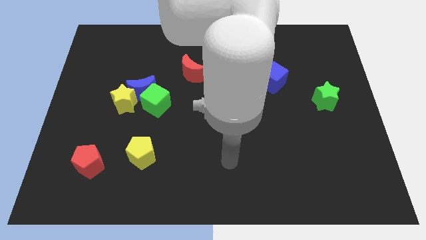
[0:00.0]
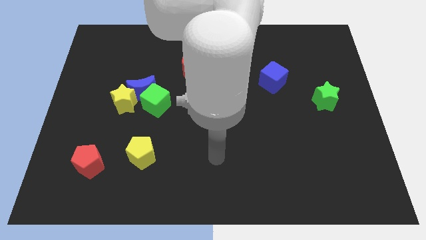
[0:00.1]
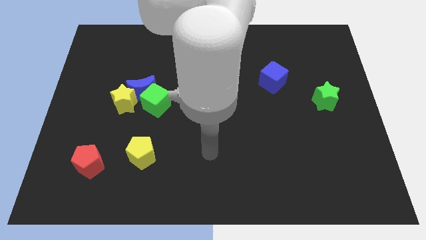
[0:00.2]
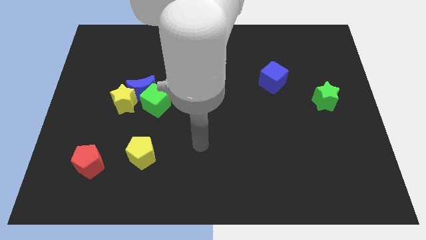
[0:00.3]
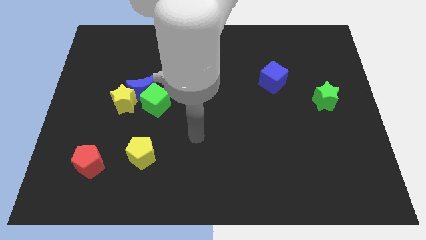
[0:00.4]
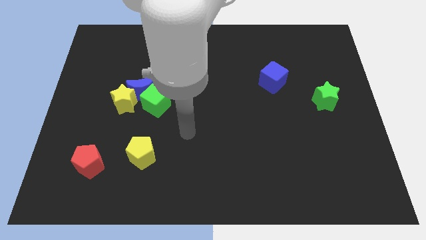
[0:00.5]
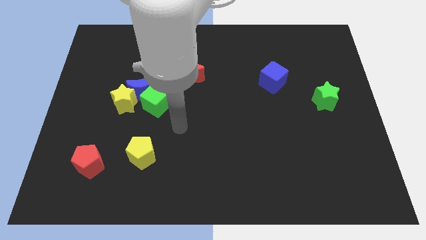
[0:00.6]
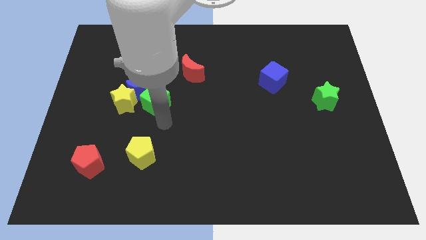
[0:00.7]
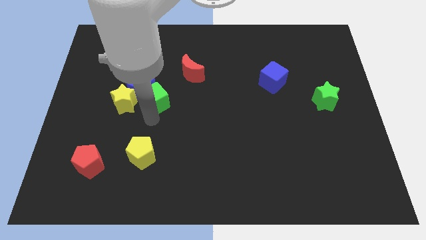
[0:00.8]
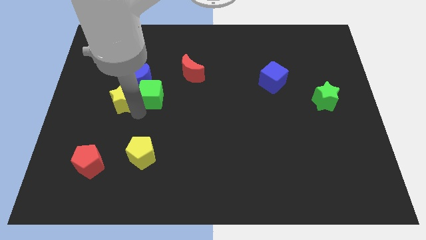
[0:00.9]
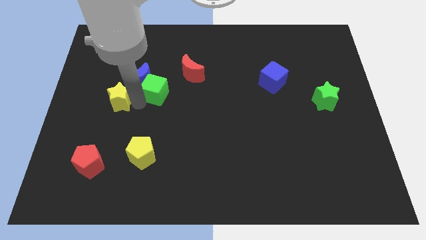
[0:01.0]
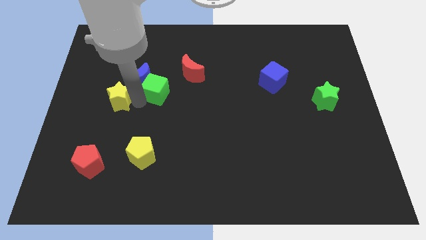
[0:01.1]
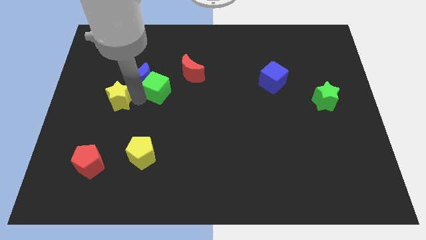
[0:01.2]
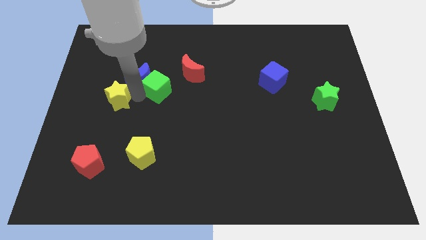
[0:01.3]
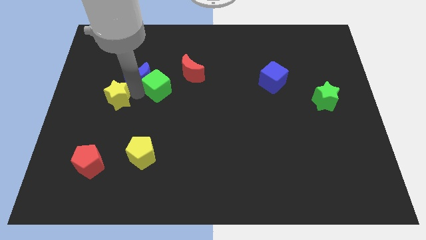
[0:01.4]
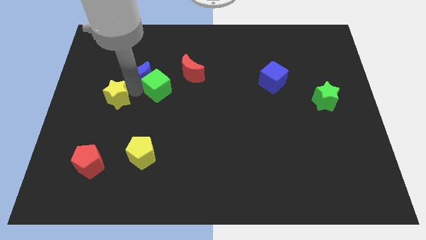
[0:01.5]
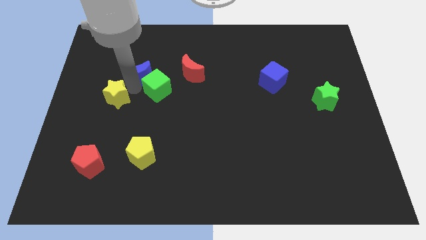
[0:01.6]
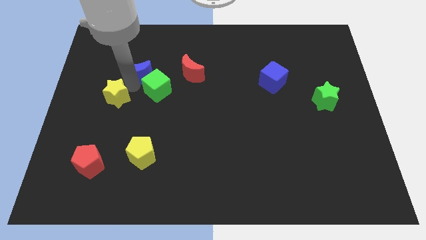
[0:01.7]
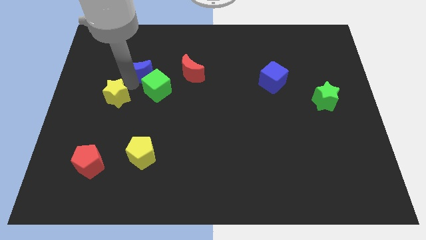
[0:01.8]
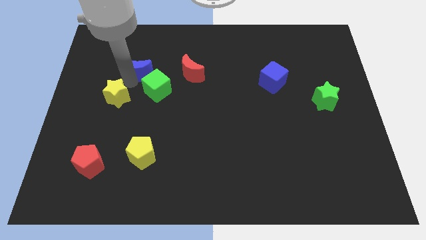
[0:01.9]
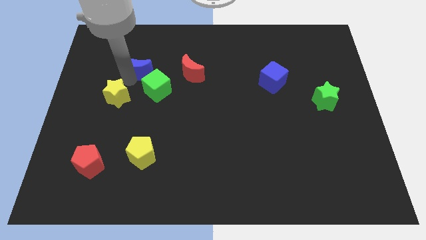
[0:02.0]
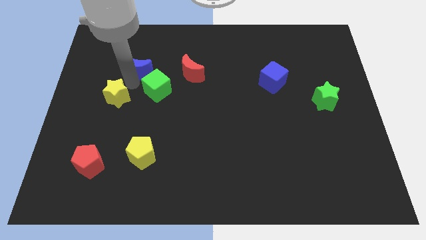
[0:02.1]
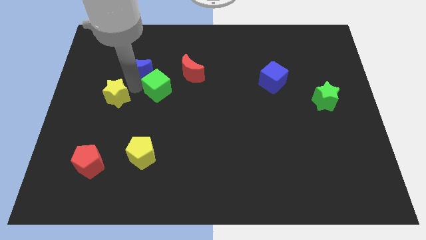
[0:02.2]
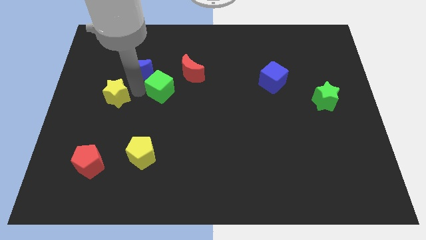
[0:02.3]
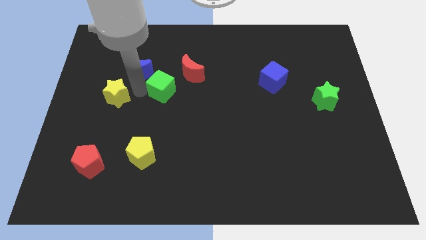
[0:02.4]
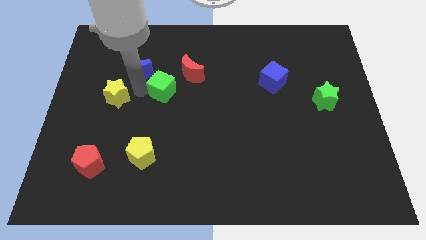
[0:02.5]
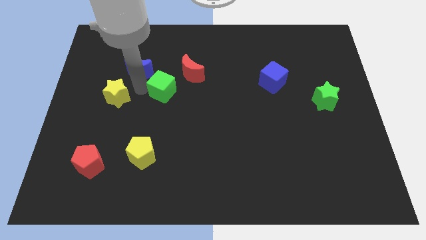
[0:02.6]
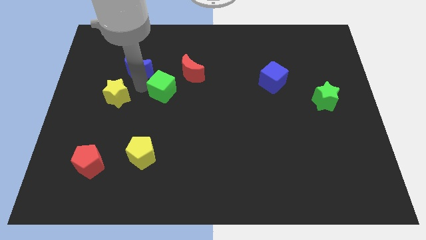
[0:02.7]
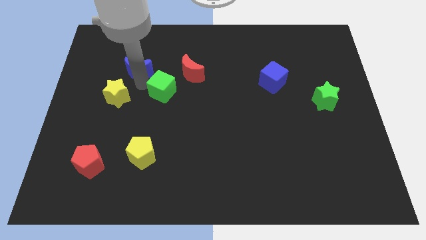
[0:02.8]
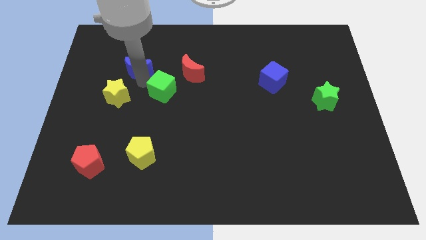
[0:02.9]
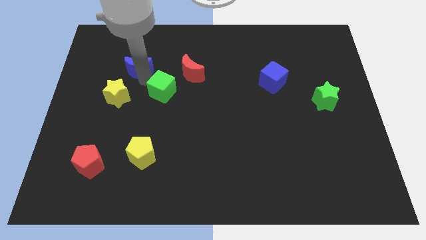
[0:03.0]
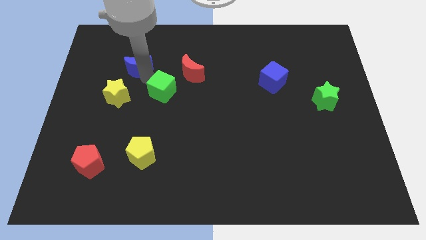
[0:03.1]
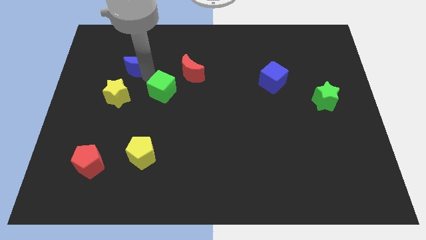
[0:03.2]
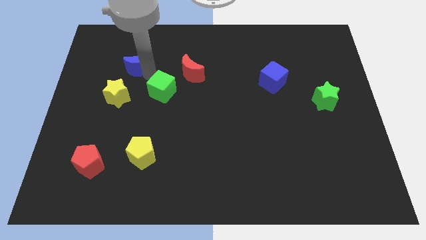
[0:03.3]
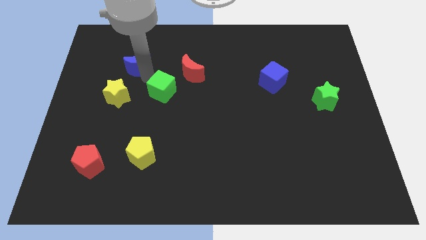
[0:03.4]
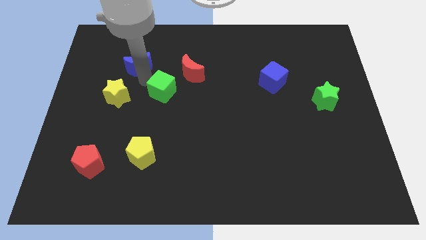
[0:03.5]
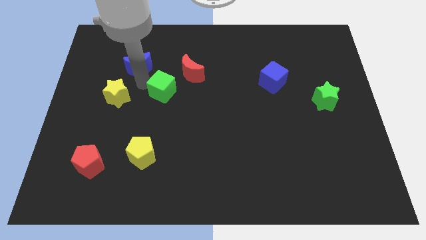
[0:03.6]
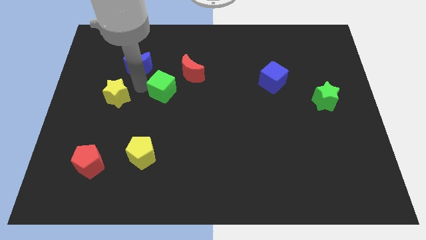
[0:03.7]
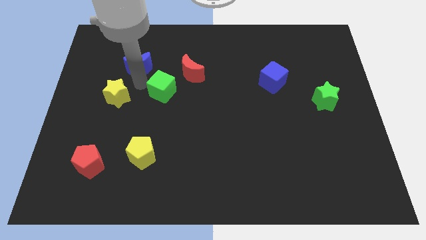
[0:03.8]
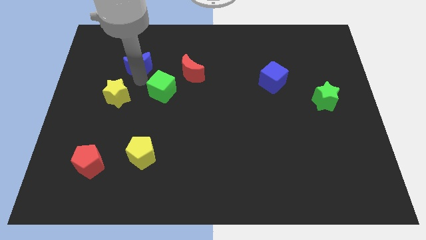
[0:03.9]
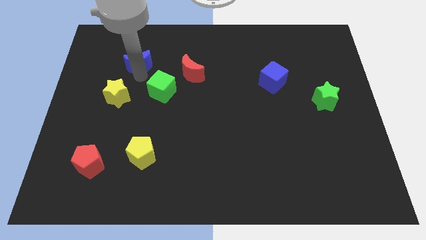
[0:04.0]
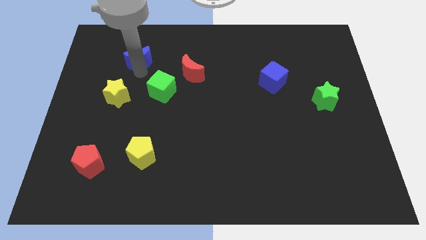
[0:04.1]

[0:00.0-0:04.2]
separate the blue moon from the yellow star and green cube

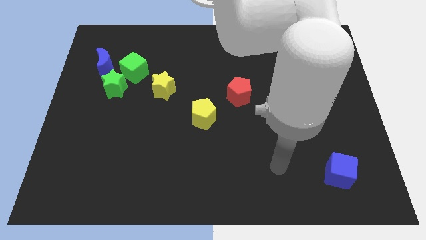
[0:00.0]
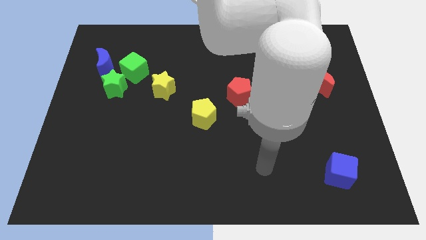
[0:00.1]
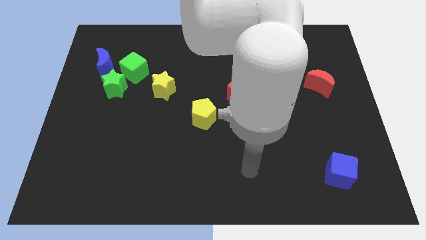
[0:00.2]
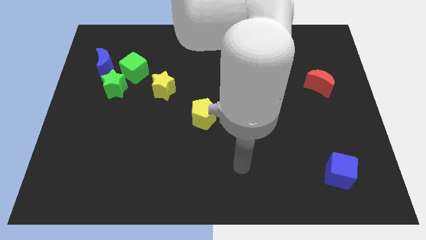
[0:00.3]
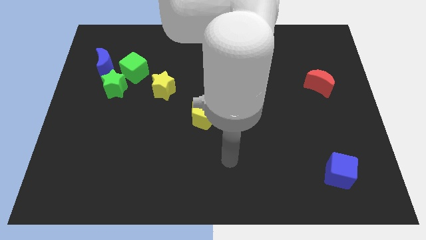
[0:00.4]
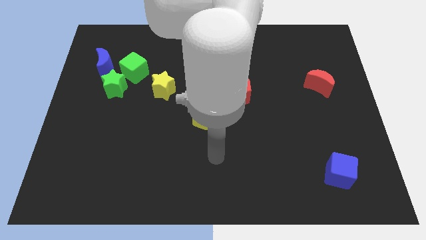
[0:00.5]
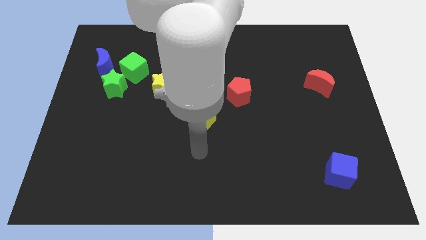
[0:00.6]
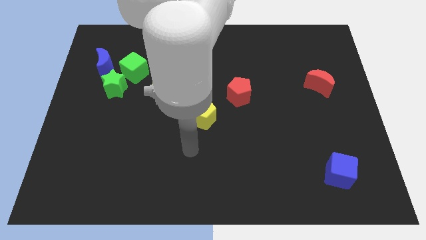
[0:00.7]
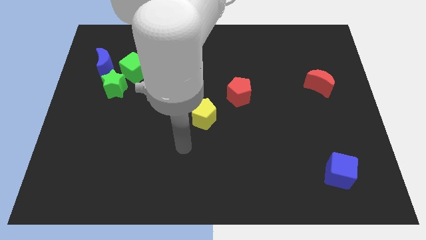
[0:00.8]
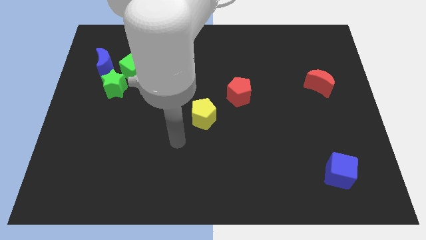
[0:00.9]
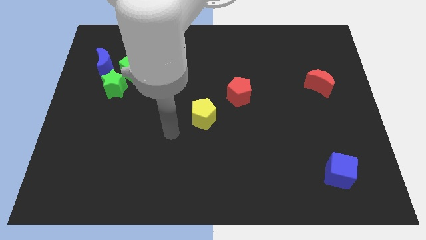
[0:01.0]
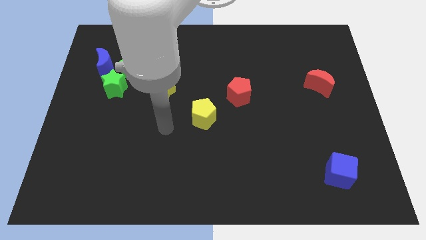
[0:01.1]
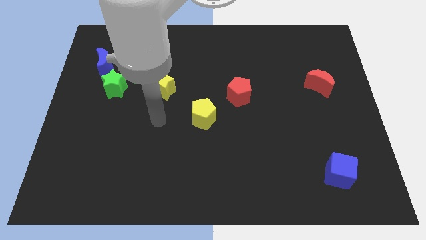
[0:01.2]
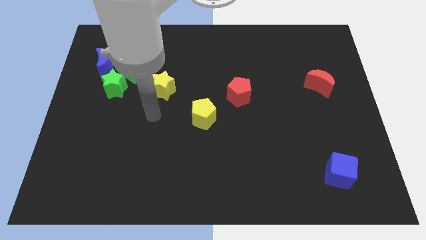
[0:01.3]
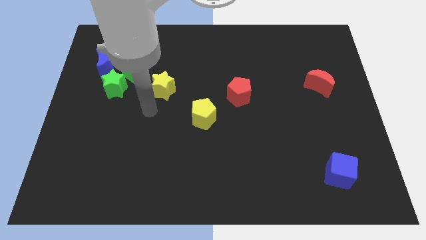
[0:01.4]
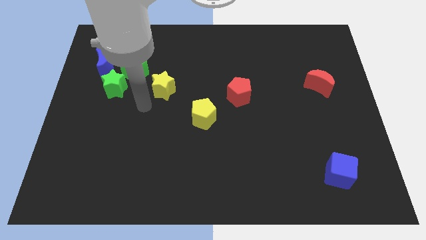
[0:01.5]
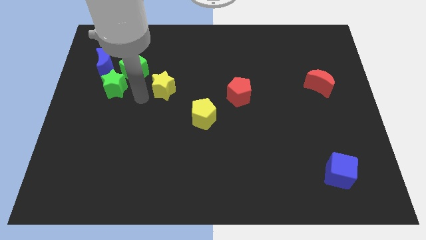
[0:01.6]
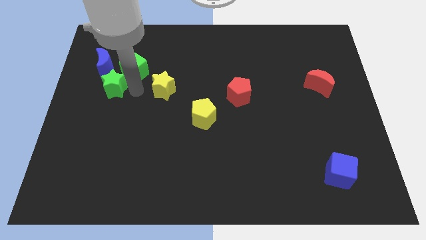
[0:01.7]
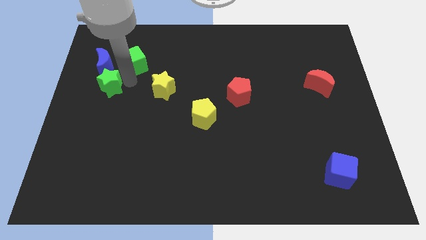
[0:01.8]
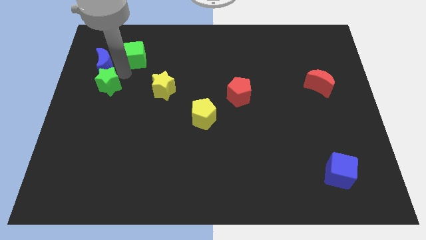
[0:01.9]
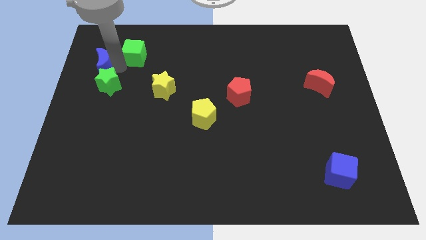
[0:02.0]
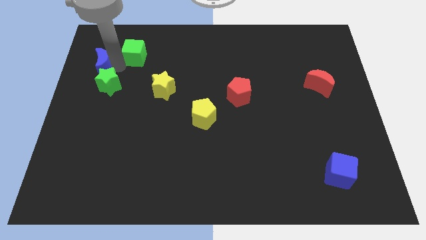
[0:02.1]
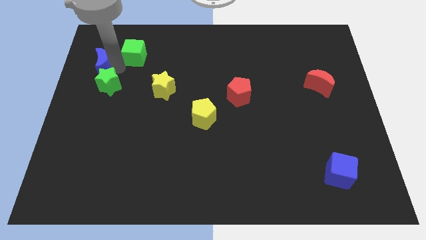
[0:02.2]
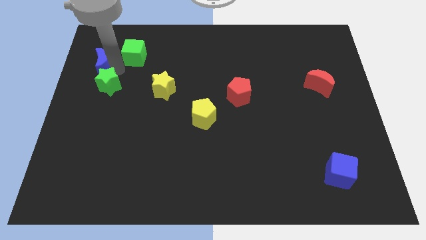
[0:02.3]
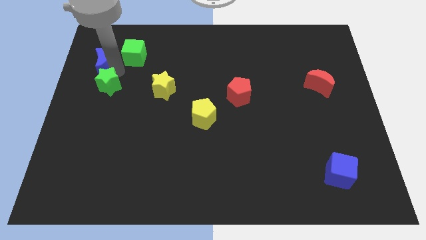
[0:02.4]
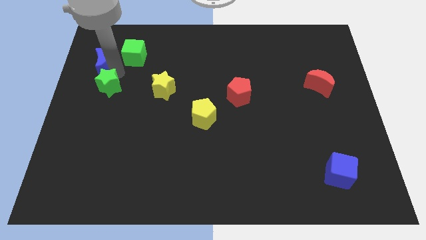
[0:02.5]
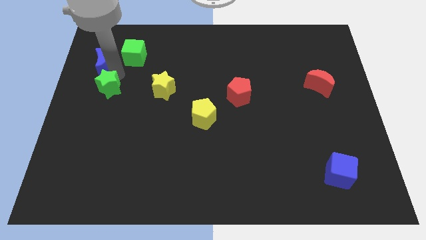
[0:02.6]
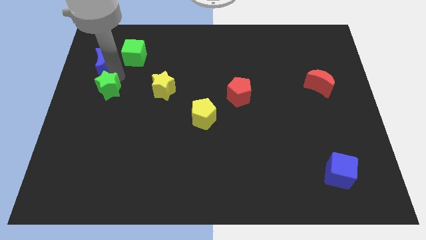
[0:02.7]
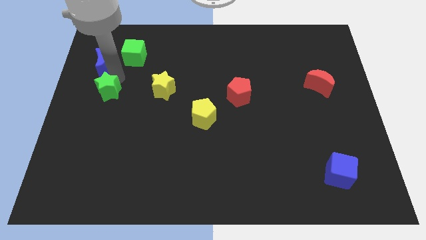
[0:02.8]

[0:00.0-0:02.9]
move the green star away from the green cube and blue moon

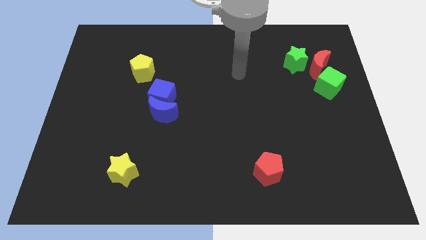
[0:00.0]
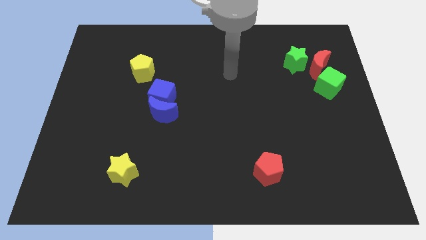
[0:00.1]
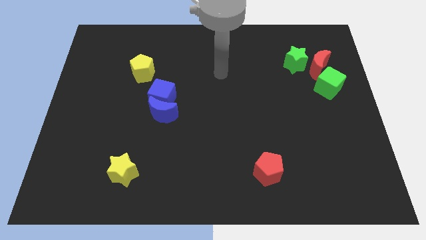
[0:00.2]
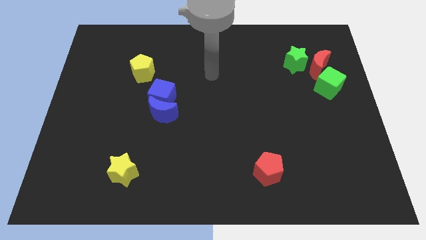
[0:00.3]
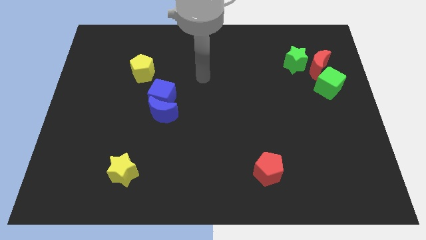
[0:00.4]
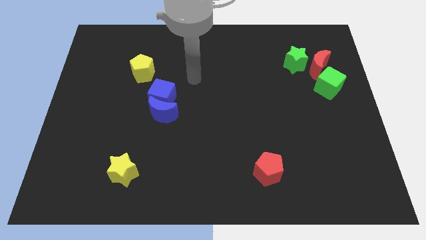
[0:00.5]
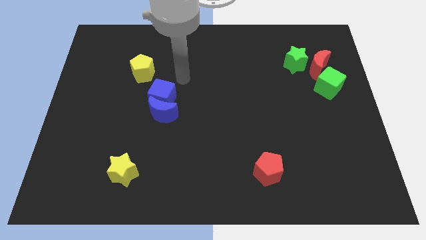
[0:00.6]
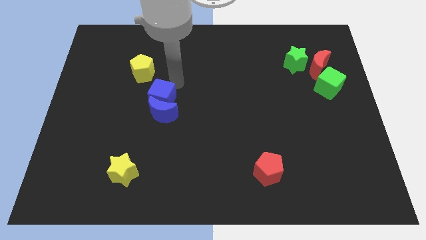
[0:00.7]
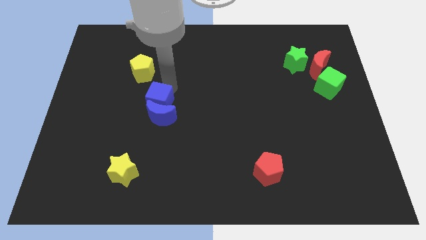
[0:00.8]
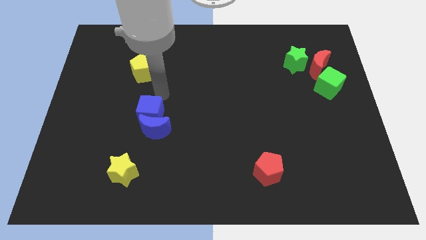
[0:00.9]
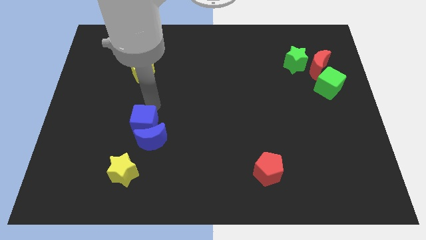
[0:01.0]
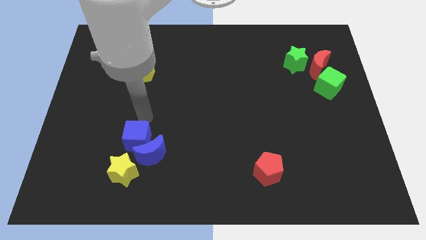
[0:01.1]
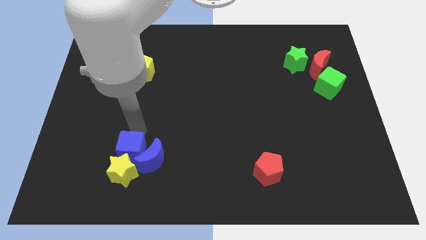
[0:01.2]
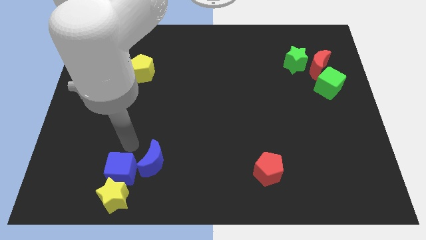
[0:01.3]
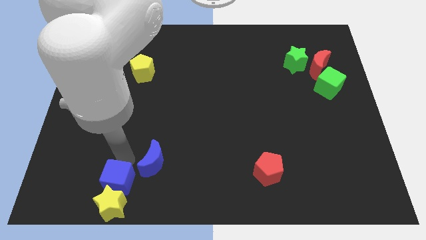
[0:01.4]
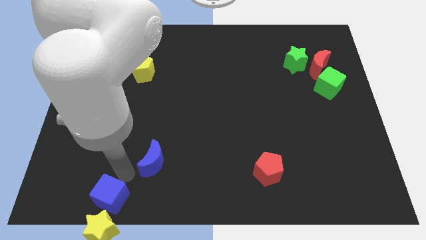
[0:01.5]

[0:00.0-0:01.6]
move the blue moon away from the blue cube

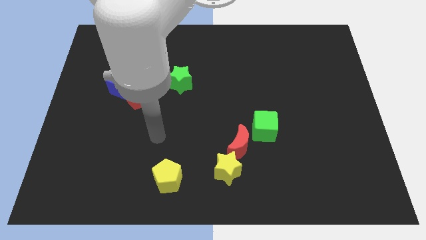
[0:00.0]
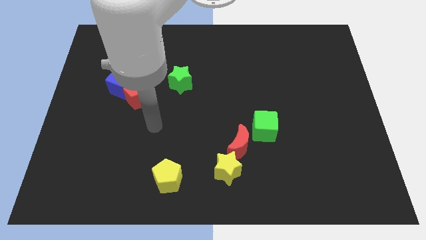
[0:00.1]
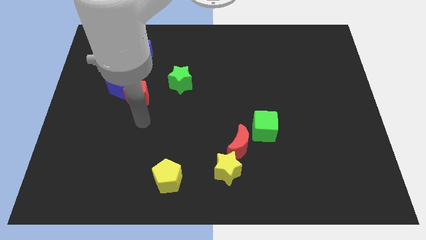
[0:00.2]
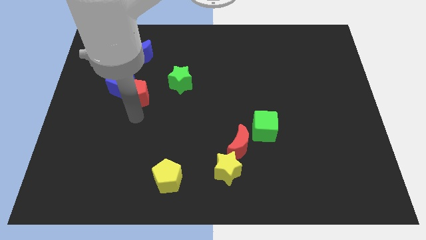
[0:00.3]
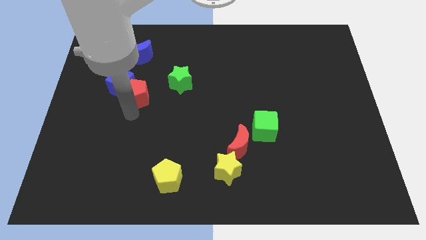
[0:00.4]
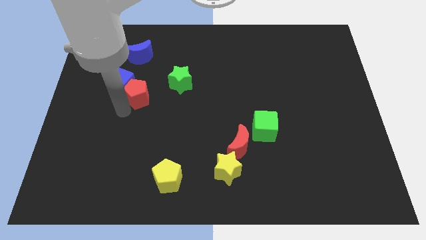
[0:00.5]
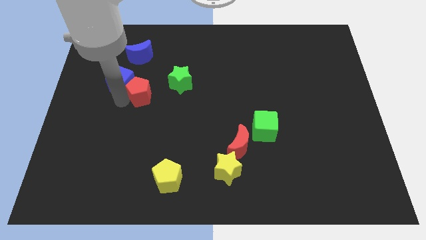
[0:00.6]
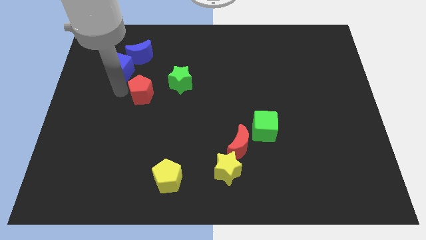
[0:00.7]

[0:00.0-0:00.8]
separate the red pentagon from the blue cube
